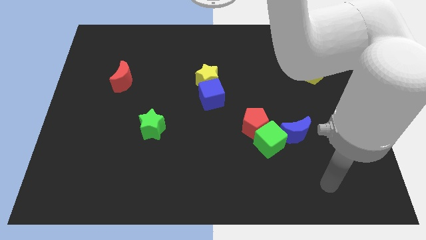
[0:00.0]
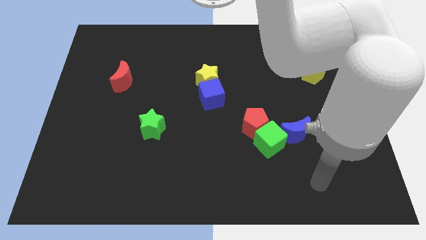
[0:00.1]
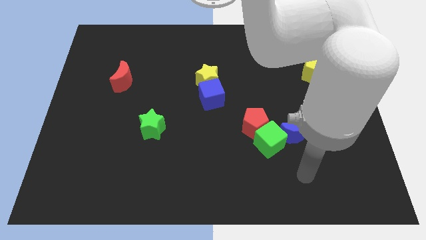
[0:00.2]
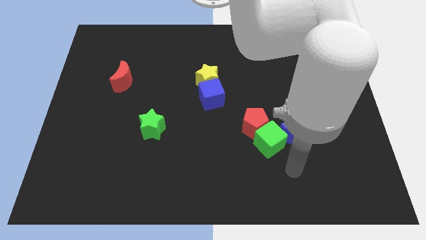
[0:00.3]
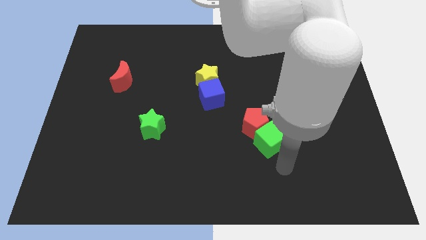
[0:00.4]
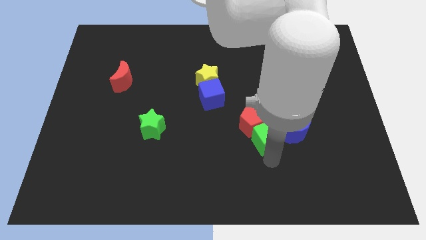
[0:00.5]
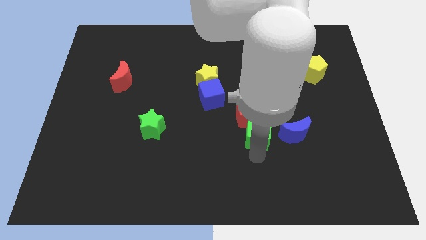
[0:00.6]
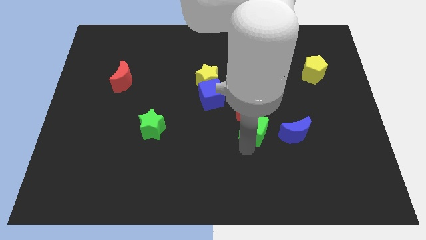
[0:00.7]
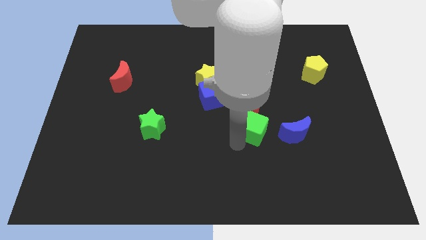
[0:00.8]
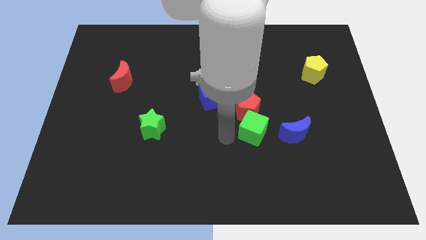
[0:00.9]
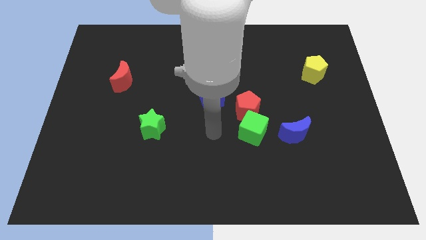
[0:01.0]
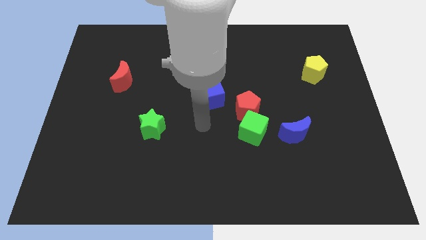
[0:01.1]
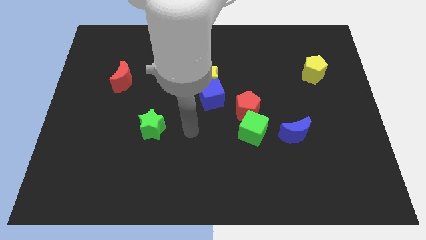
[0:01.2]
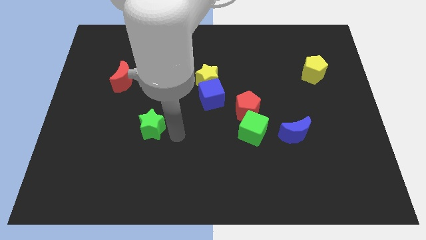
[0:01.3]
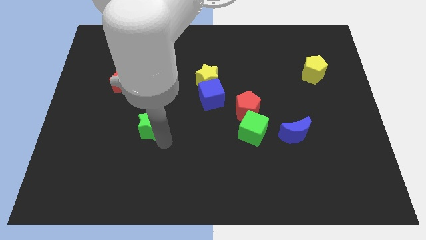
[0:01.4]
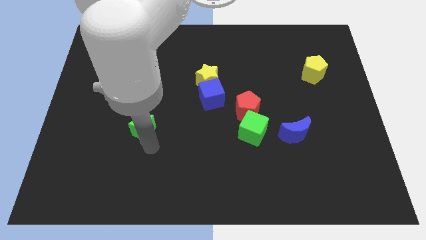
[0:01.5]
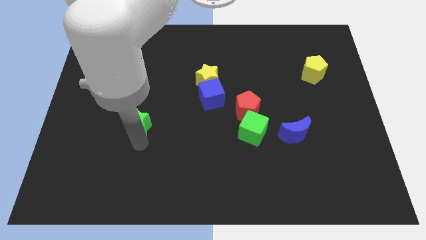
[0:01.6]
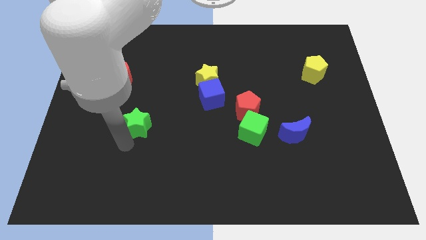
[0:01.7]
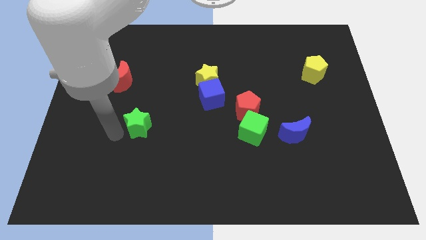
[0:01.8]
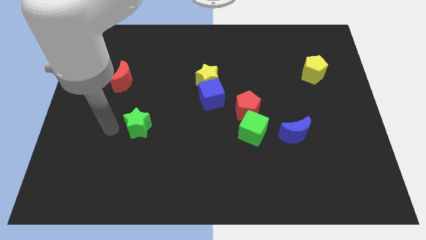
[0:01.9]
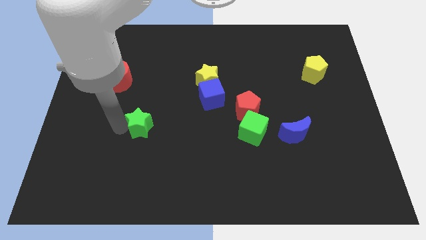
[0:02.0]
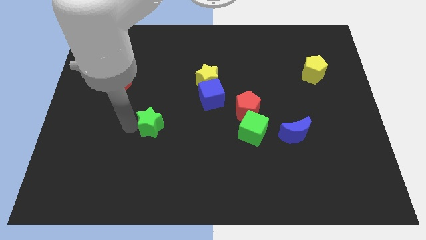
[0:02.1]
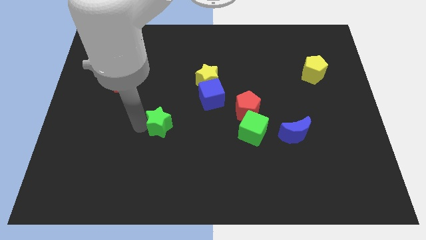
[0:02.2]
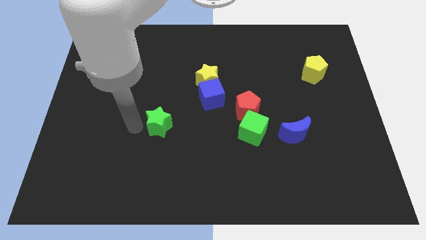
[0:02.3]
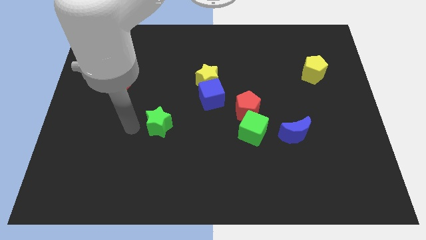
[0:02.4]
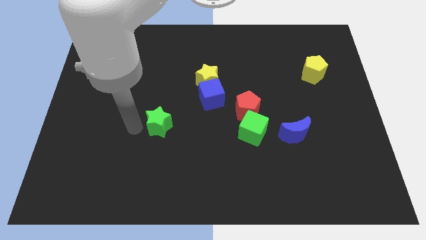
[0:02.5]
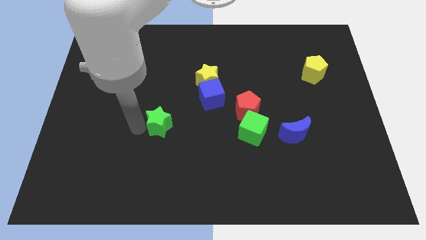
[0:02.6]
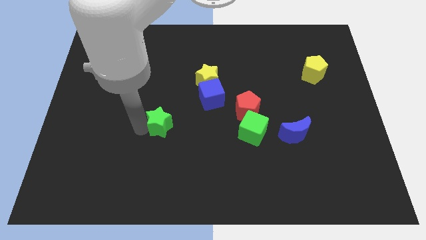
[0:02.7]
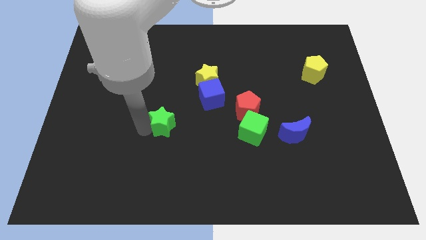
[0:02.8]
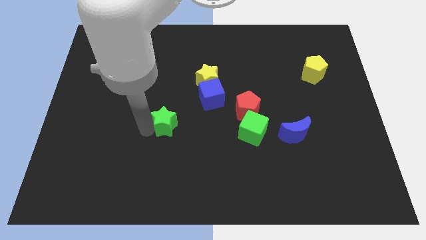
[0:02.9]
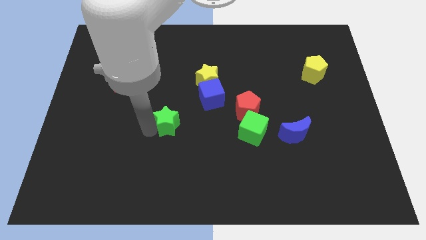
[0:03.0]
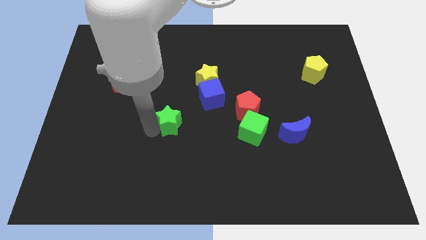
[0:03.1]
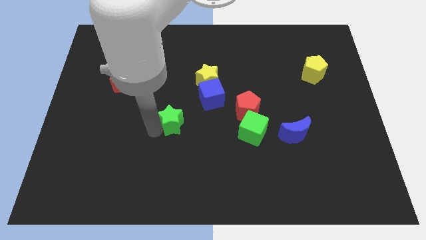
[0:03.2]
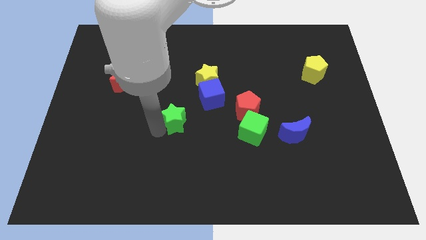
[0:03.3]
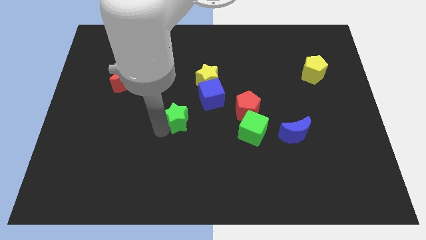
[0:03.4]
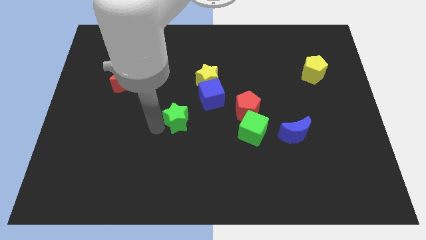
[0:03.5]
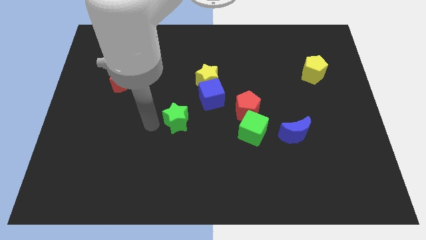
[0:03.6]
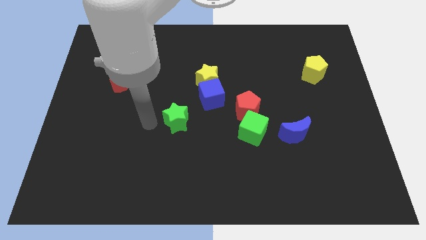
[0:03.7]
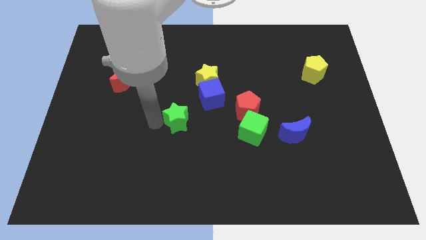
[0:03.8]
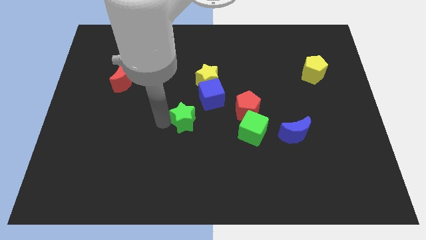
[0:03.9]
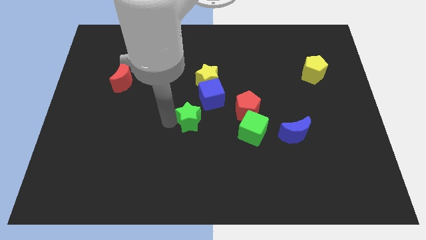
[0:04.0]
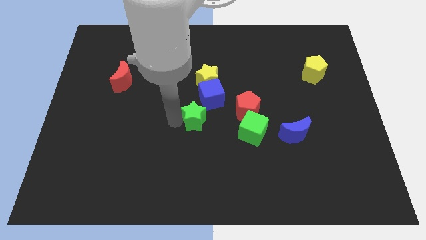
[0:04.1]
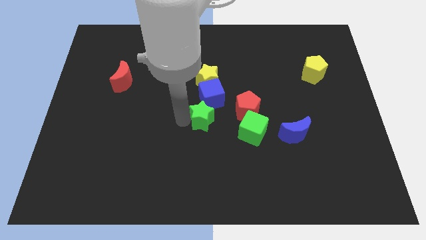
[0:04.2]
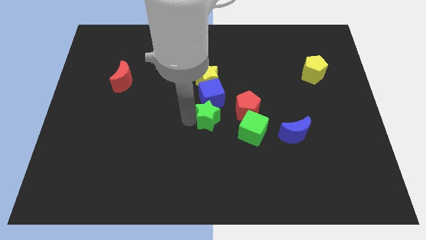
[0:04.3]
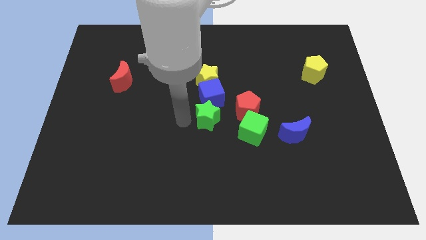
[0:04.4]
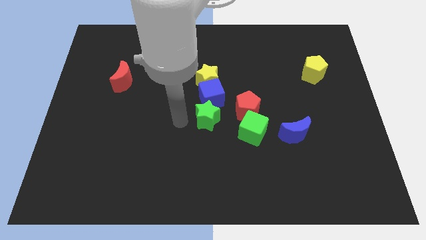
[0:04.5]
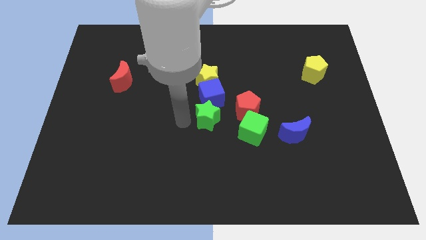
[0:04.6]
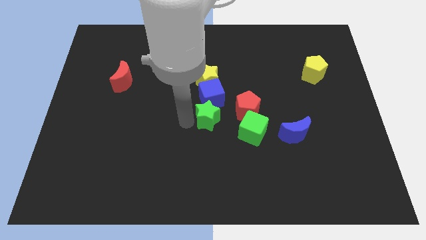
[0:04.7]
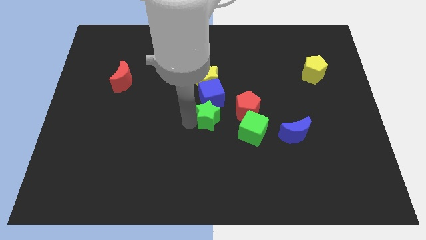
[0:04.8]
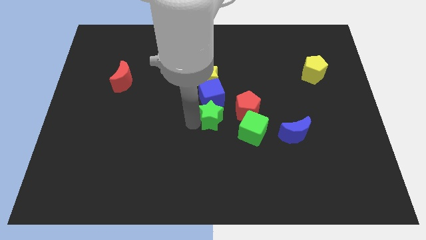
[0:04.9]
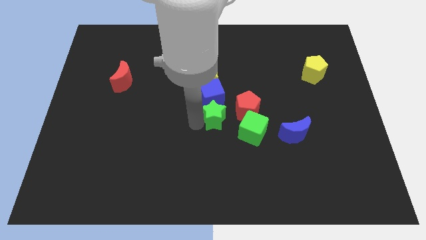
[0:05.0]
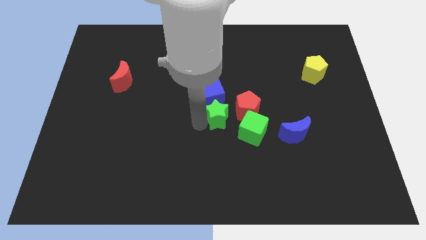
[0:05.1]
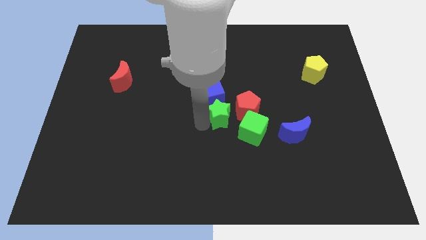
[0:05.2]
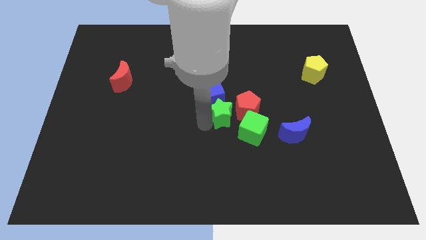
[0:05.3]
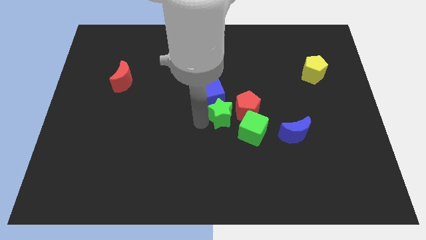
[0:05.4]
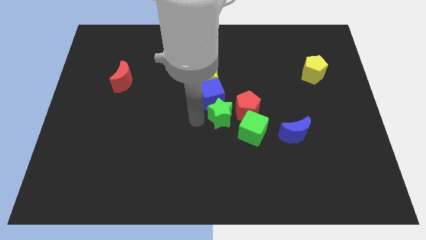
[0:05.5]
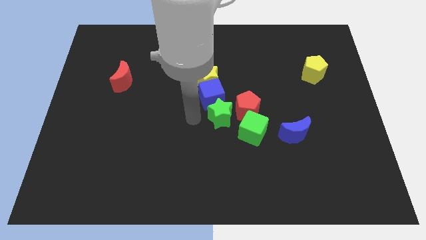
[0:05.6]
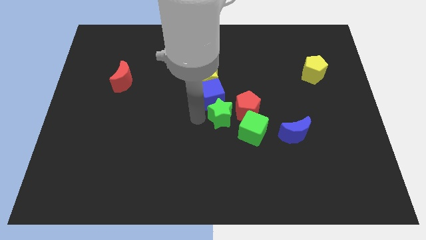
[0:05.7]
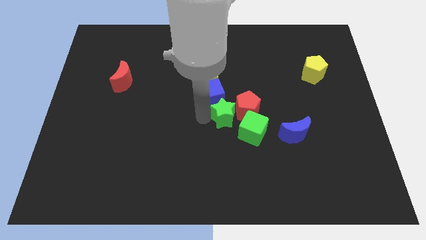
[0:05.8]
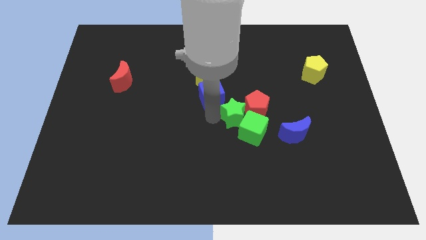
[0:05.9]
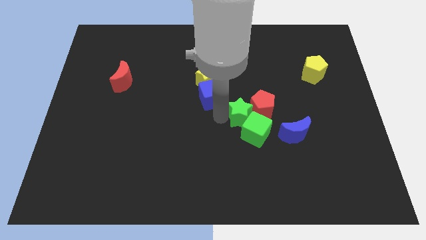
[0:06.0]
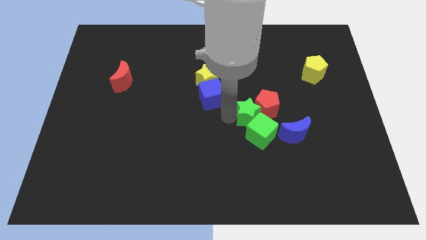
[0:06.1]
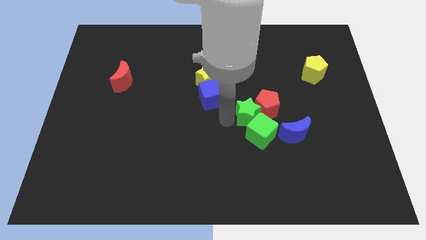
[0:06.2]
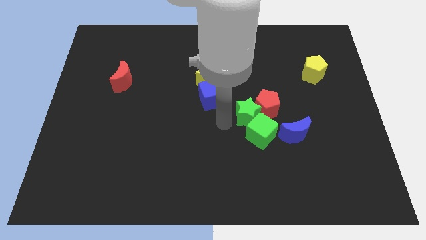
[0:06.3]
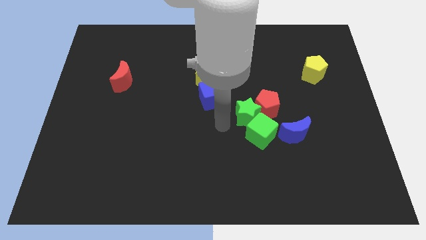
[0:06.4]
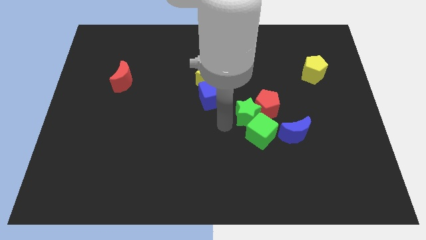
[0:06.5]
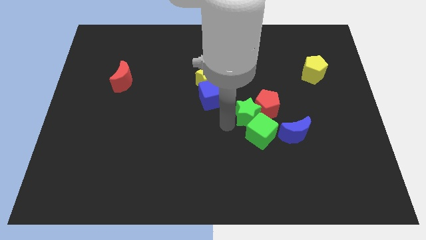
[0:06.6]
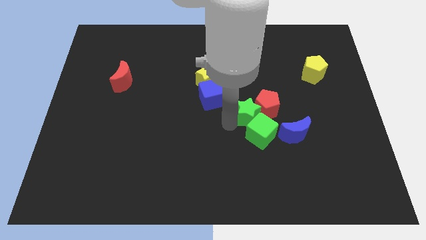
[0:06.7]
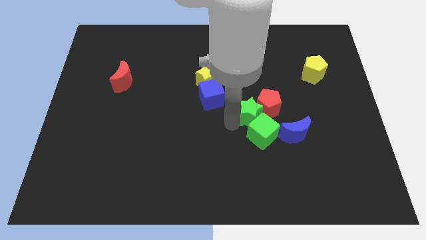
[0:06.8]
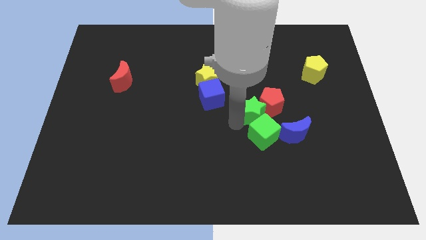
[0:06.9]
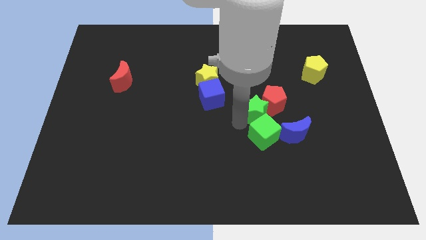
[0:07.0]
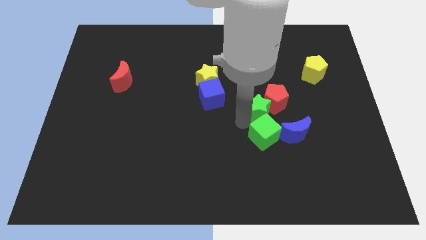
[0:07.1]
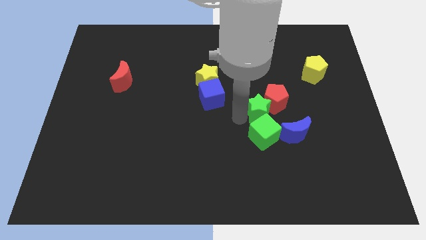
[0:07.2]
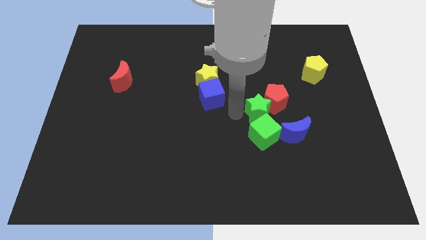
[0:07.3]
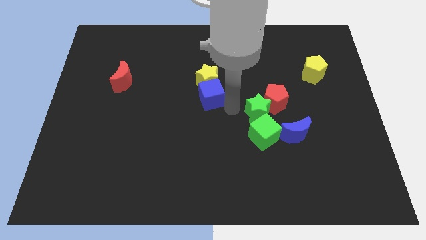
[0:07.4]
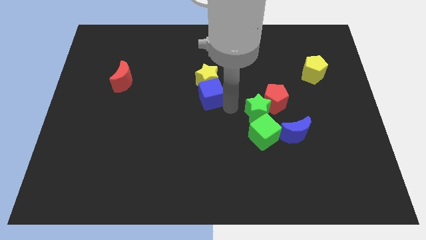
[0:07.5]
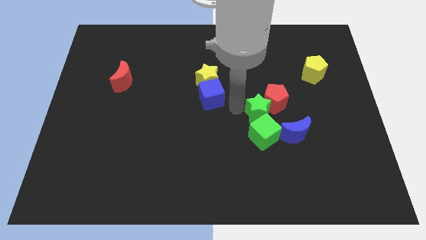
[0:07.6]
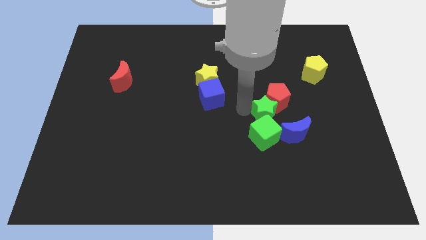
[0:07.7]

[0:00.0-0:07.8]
move the green star to the top right side of the green cube

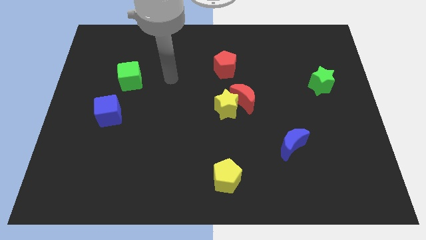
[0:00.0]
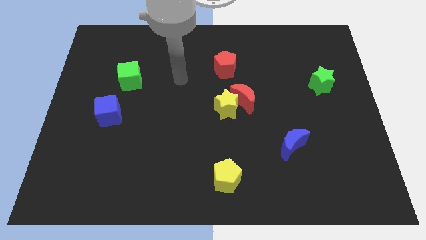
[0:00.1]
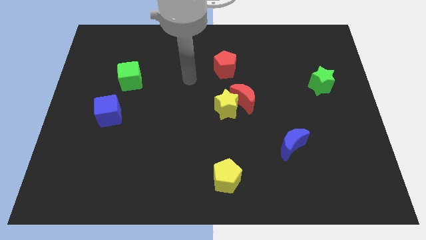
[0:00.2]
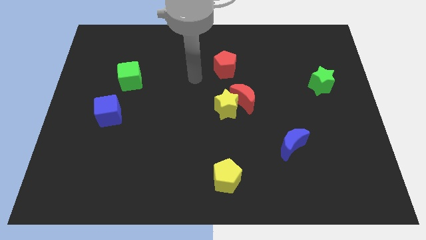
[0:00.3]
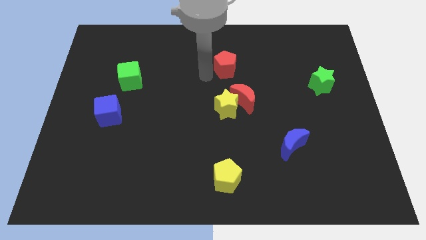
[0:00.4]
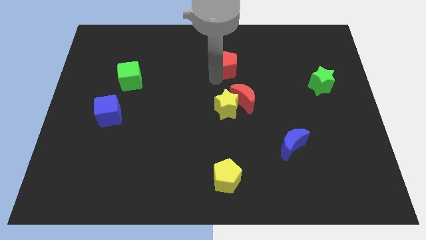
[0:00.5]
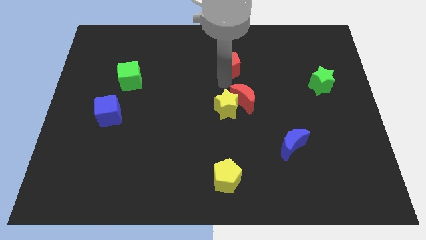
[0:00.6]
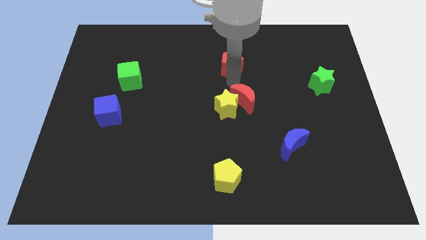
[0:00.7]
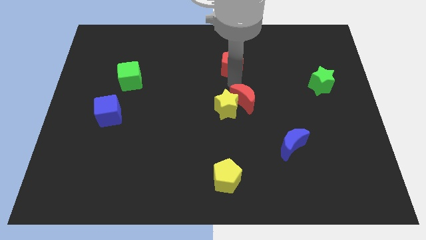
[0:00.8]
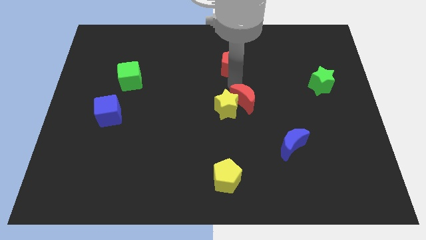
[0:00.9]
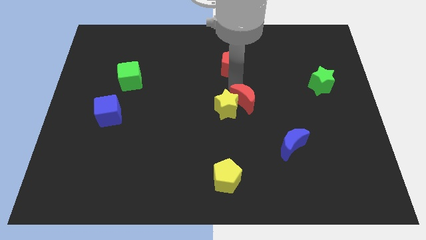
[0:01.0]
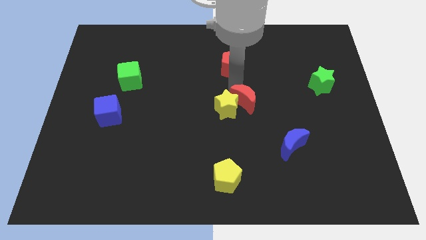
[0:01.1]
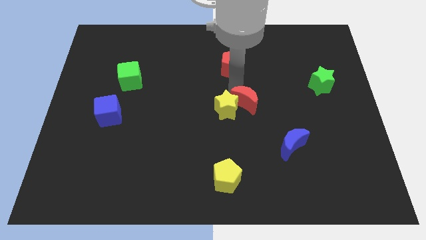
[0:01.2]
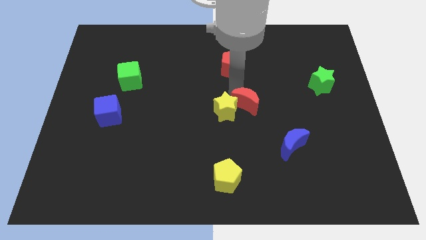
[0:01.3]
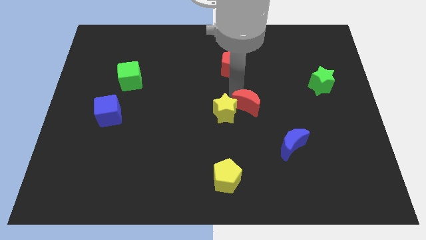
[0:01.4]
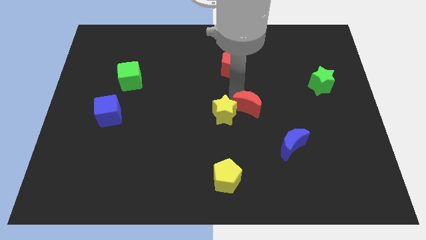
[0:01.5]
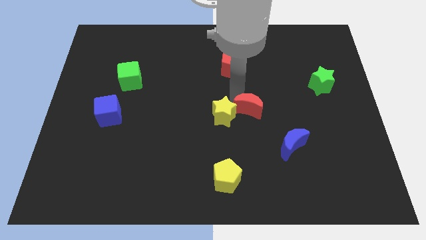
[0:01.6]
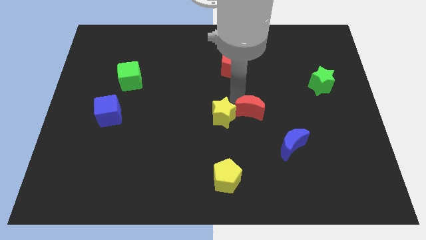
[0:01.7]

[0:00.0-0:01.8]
slide the red moon diagonally up and to the left of the blue moon
